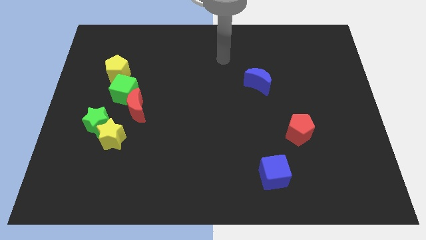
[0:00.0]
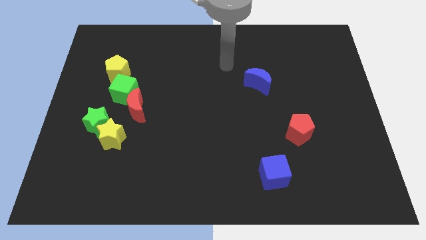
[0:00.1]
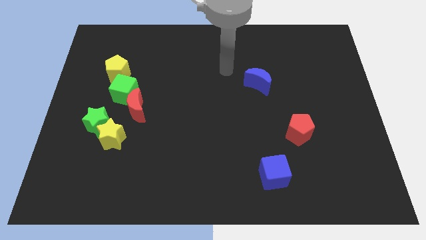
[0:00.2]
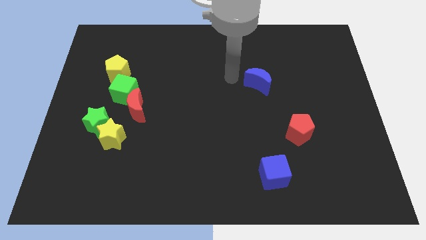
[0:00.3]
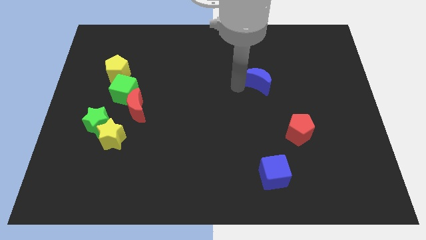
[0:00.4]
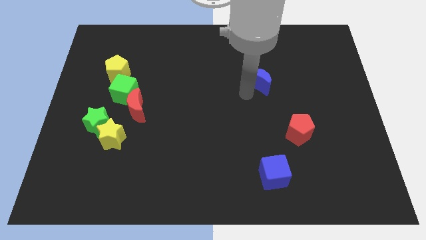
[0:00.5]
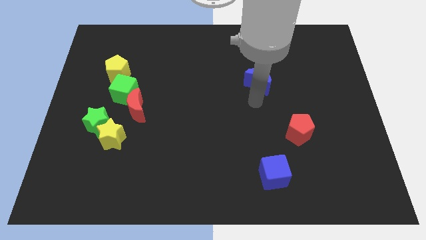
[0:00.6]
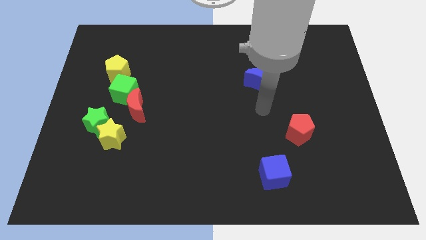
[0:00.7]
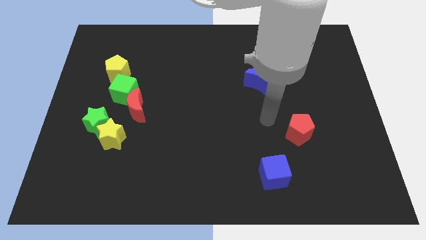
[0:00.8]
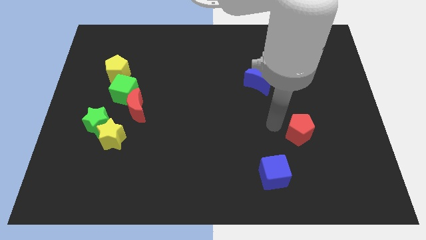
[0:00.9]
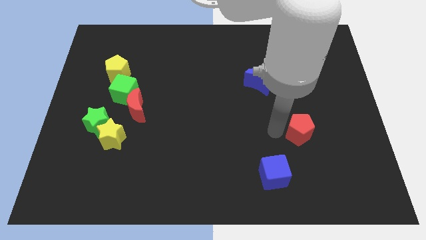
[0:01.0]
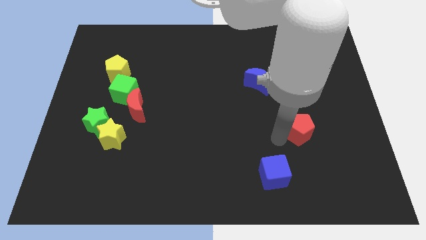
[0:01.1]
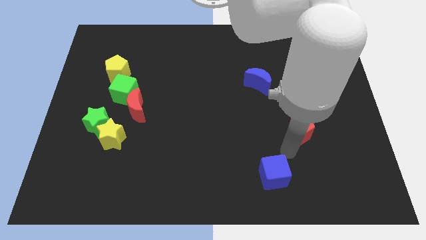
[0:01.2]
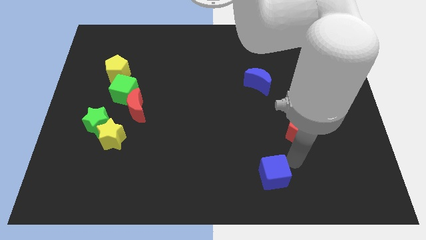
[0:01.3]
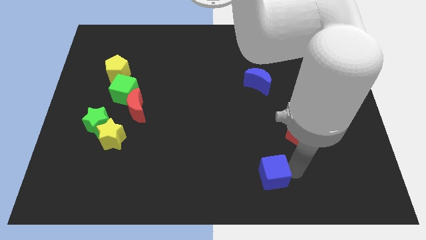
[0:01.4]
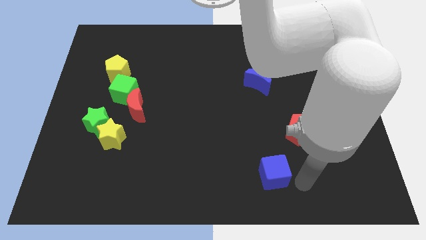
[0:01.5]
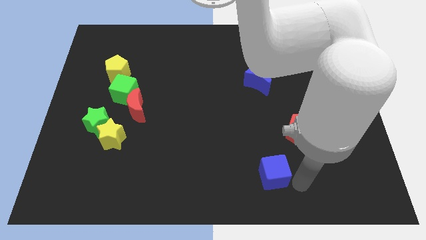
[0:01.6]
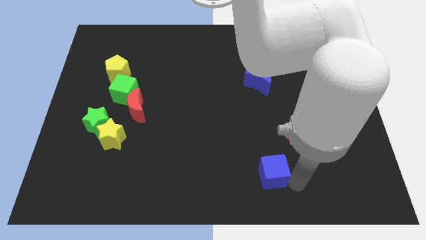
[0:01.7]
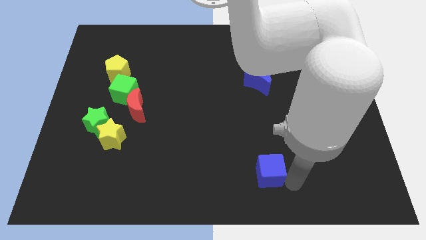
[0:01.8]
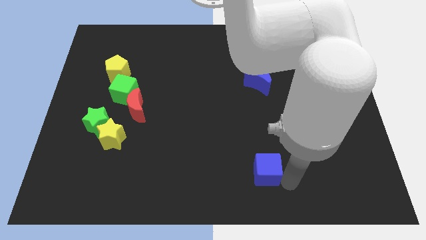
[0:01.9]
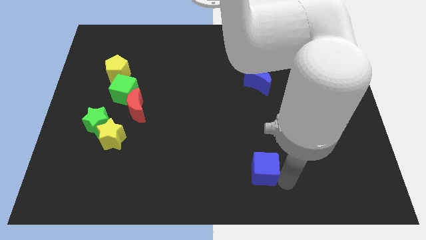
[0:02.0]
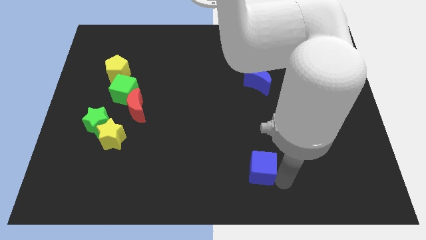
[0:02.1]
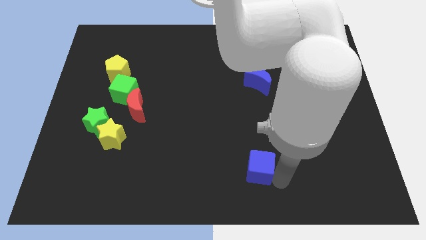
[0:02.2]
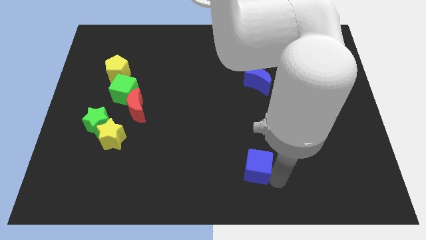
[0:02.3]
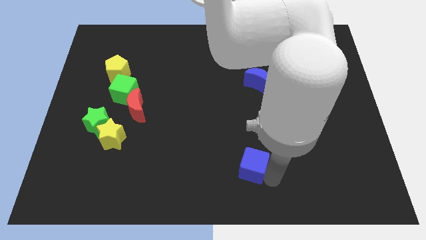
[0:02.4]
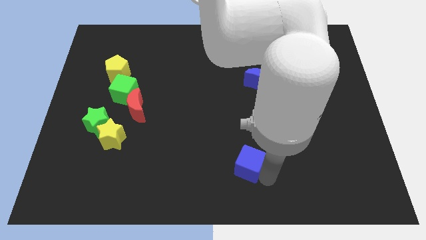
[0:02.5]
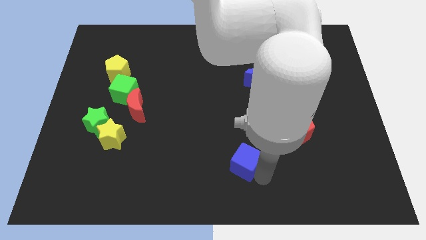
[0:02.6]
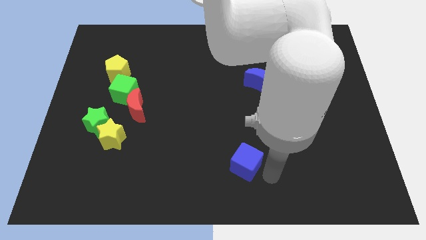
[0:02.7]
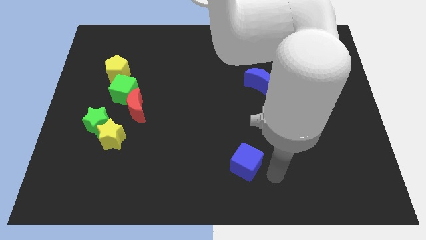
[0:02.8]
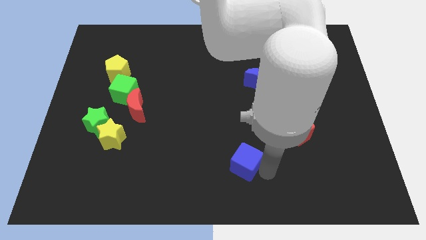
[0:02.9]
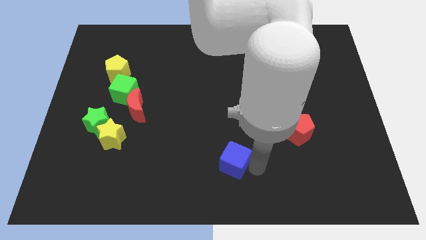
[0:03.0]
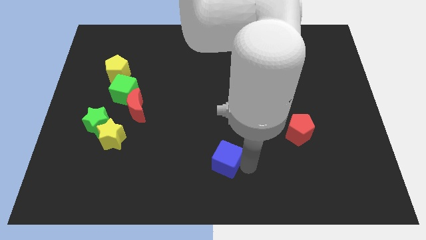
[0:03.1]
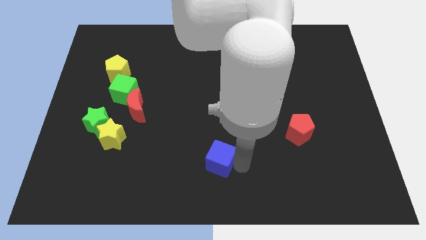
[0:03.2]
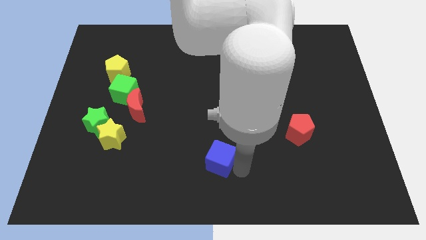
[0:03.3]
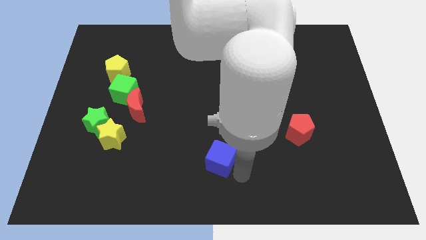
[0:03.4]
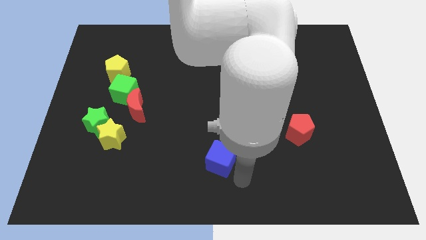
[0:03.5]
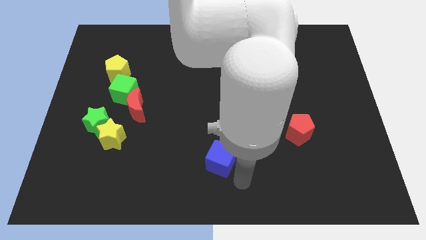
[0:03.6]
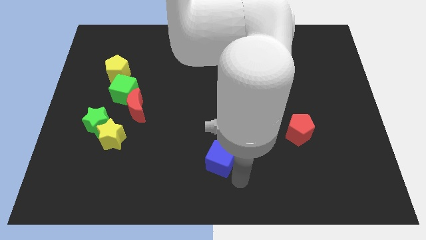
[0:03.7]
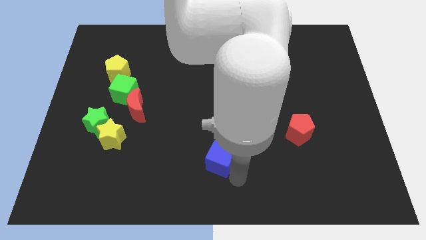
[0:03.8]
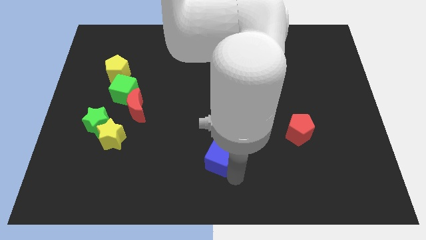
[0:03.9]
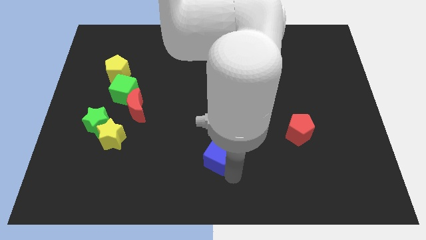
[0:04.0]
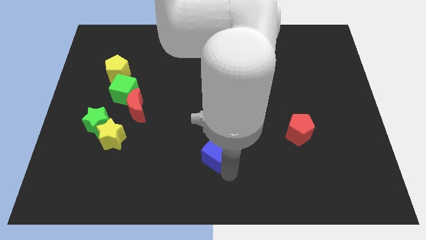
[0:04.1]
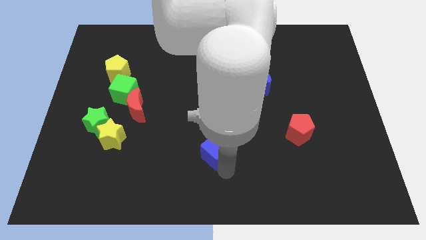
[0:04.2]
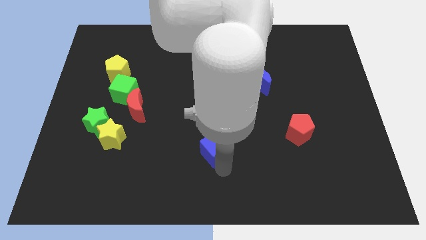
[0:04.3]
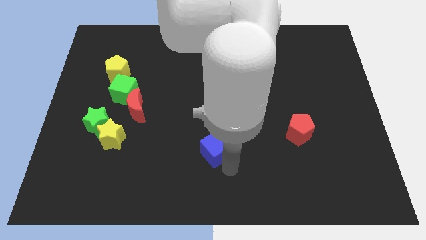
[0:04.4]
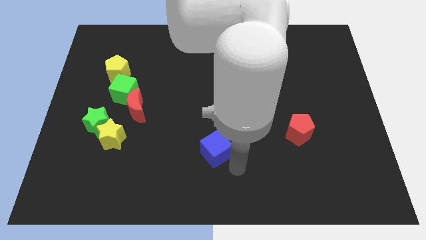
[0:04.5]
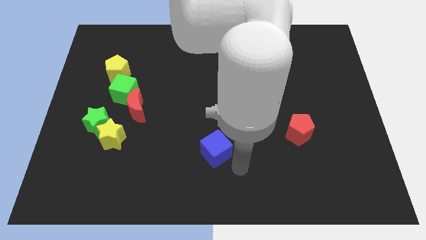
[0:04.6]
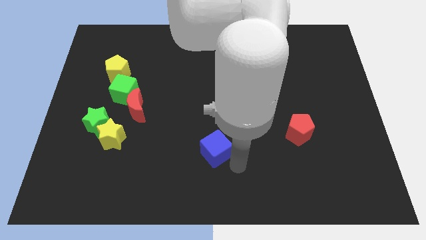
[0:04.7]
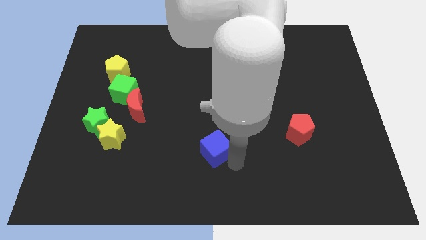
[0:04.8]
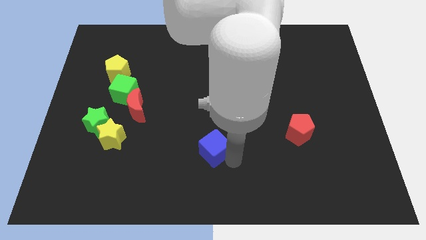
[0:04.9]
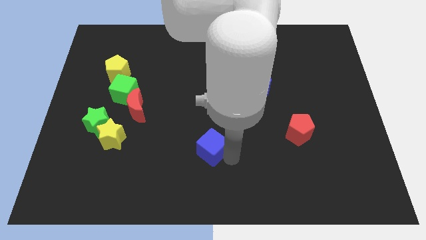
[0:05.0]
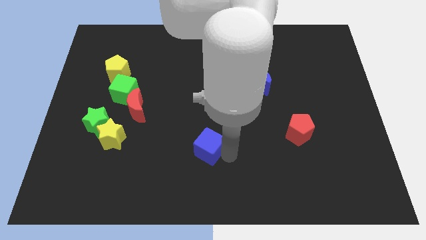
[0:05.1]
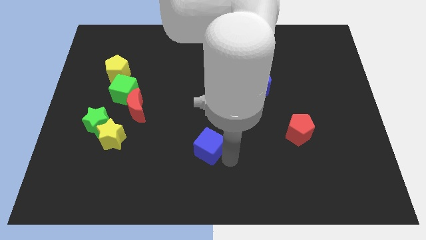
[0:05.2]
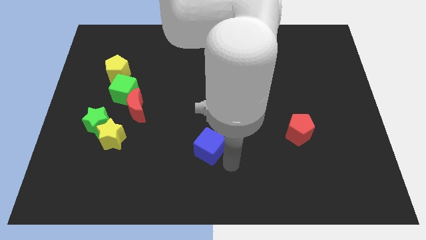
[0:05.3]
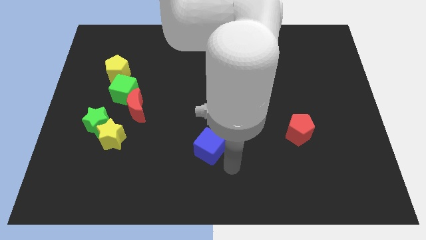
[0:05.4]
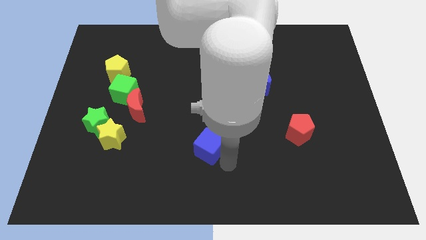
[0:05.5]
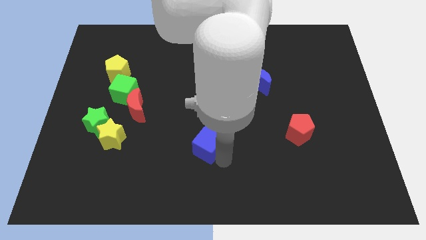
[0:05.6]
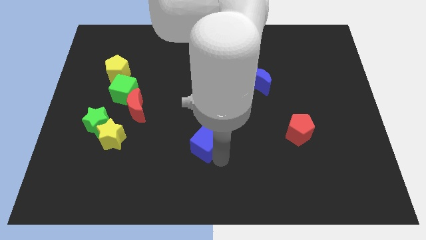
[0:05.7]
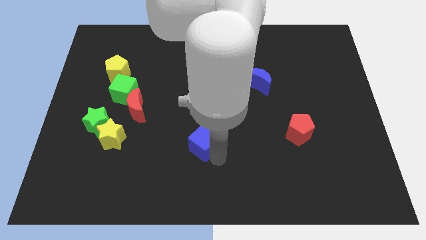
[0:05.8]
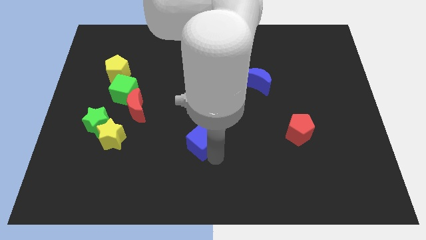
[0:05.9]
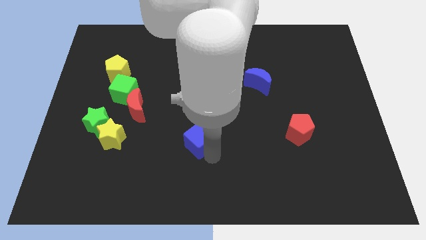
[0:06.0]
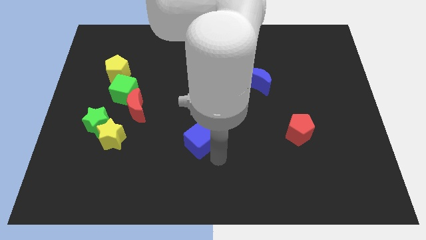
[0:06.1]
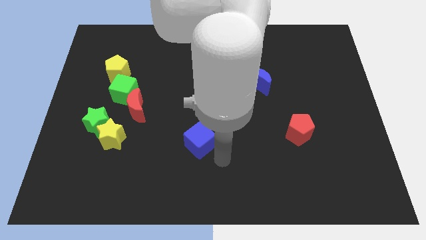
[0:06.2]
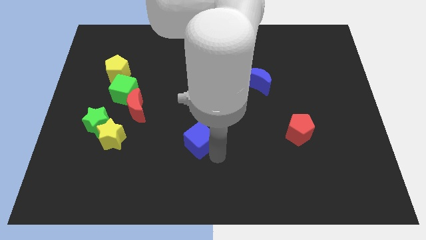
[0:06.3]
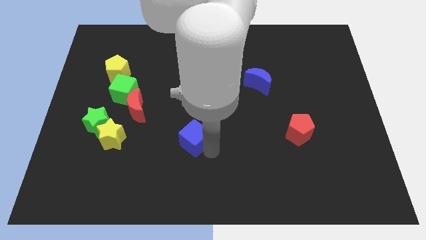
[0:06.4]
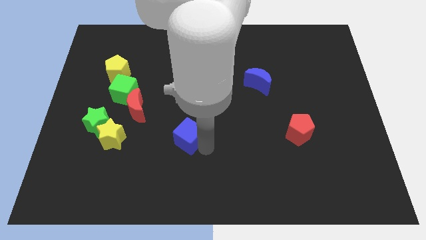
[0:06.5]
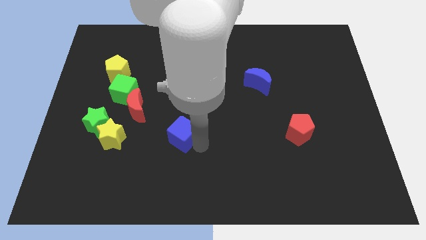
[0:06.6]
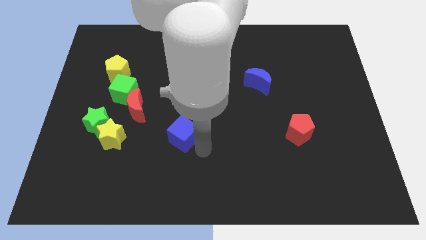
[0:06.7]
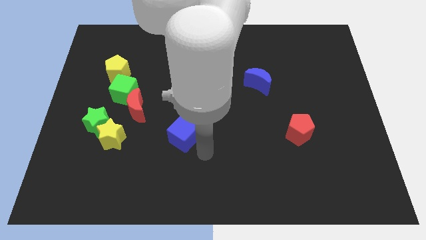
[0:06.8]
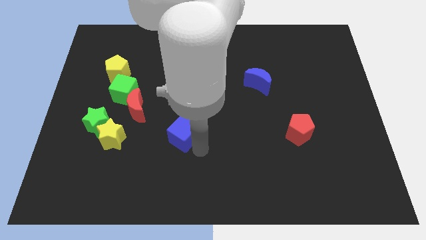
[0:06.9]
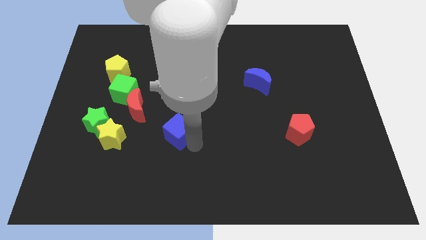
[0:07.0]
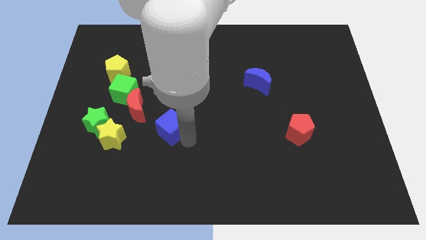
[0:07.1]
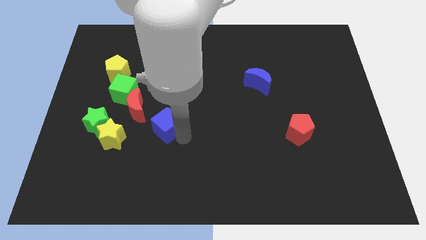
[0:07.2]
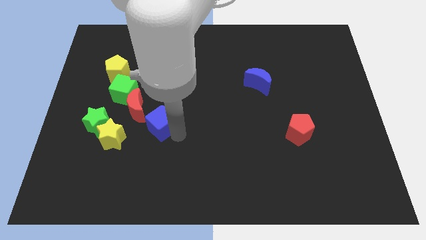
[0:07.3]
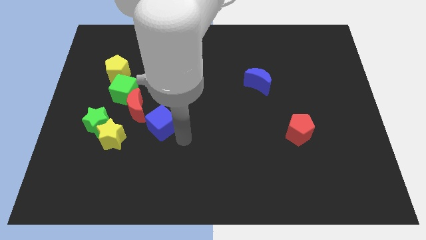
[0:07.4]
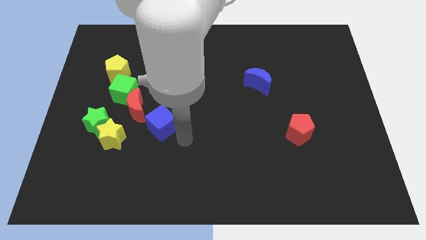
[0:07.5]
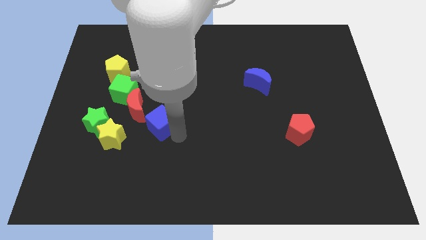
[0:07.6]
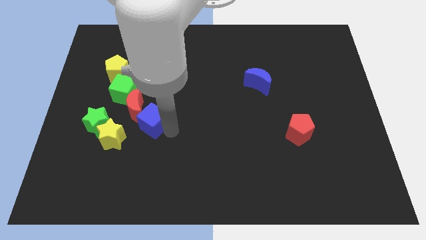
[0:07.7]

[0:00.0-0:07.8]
slide the blue cube next to the red moon
